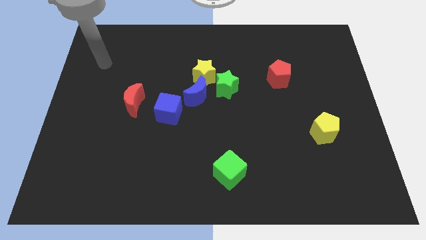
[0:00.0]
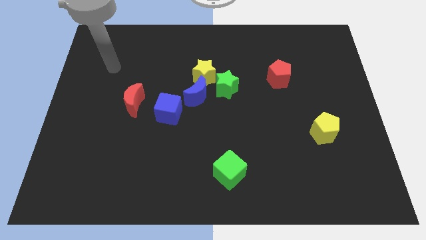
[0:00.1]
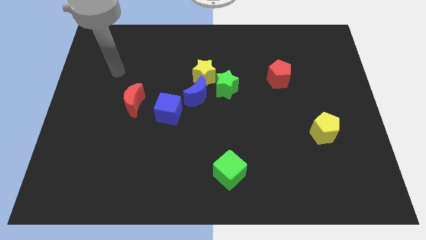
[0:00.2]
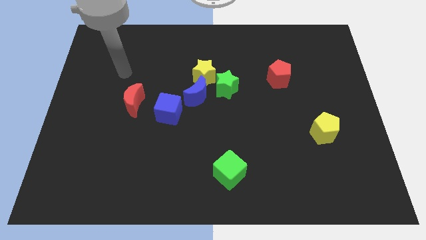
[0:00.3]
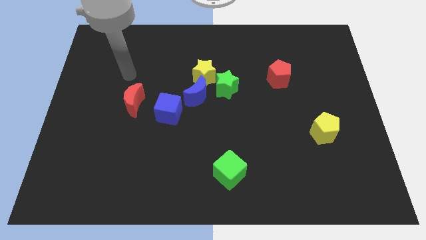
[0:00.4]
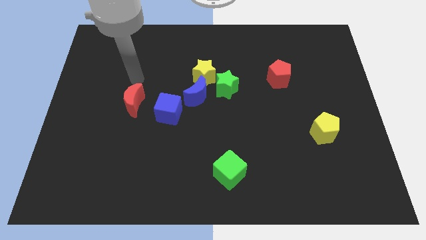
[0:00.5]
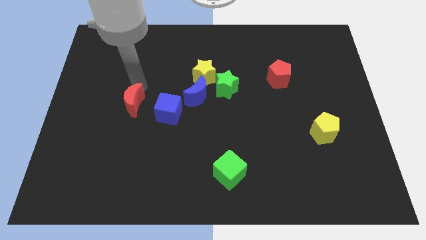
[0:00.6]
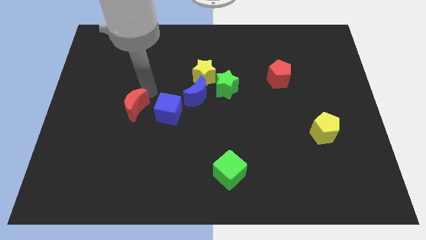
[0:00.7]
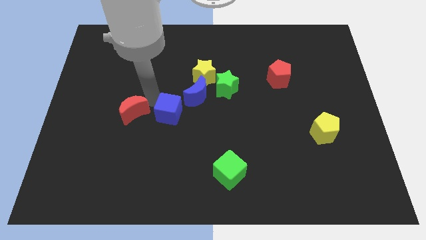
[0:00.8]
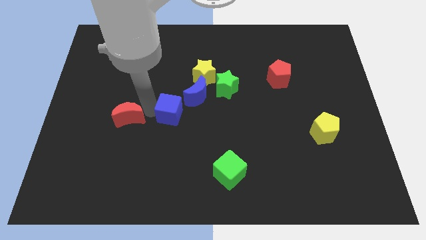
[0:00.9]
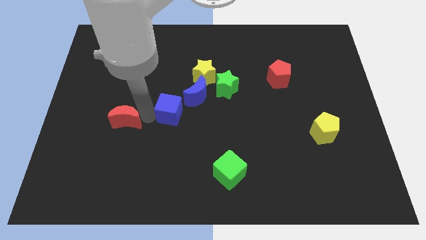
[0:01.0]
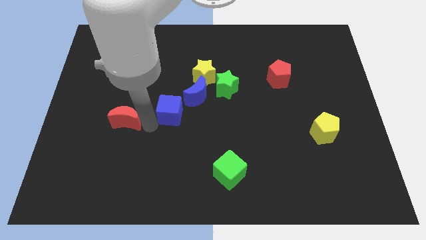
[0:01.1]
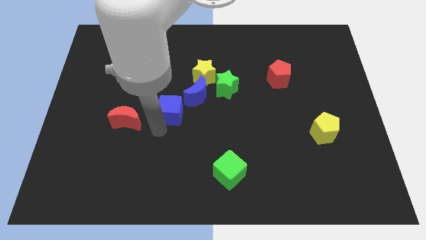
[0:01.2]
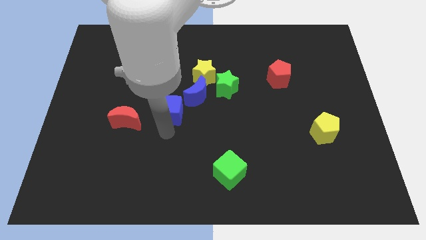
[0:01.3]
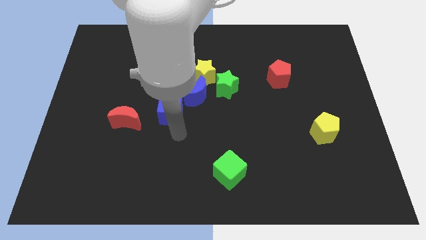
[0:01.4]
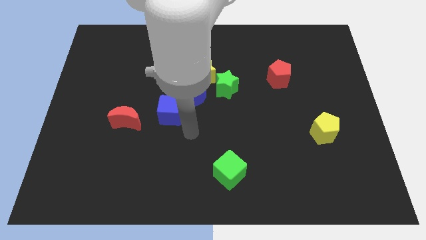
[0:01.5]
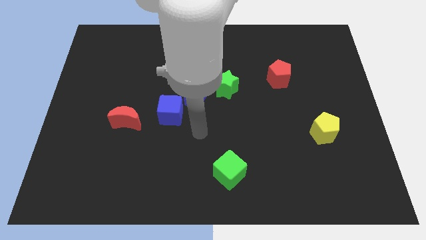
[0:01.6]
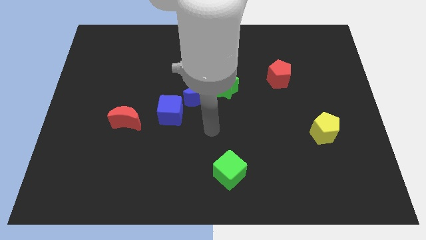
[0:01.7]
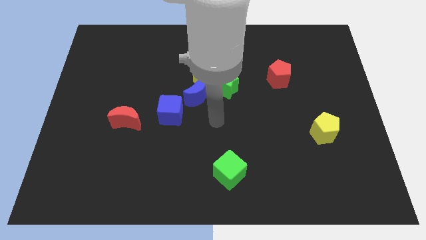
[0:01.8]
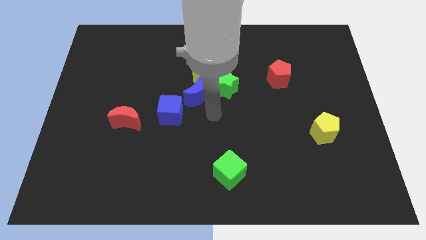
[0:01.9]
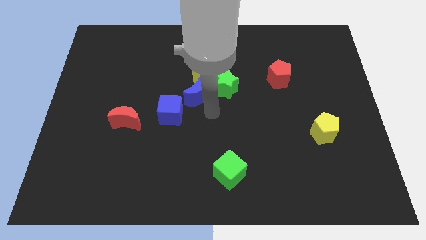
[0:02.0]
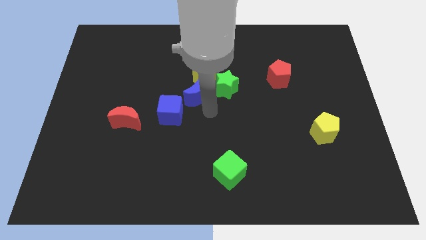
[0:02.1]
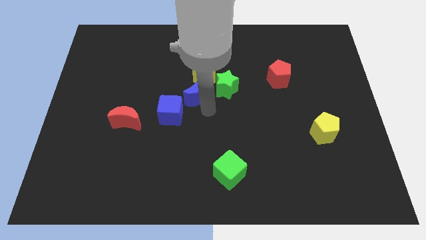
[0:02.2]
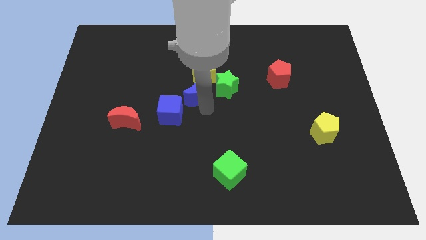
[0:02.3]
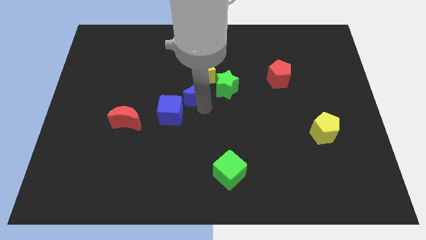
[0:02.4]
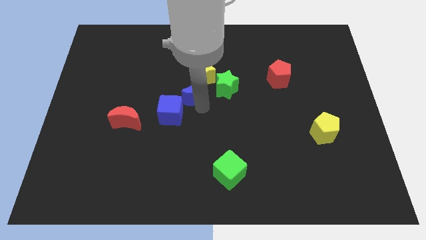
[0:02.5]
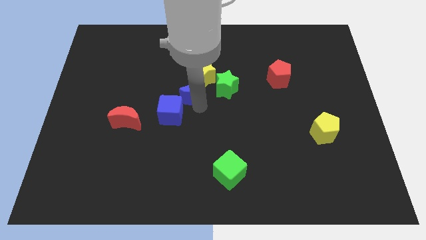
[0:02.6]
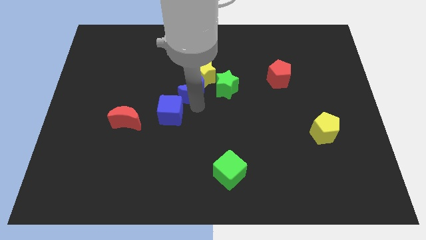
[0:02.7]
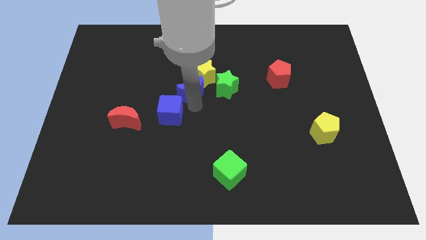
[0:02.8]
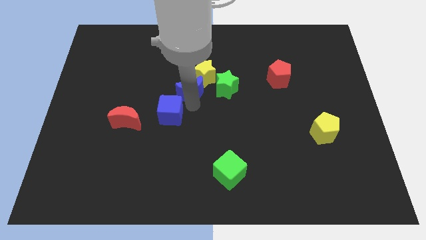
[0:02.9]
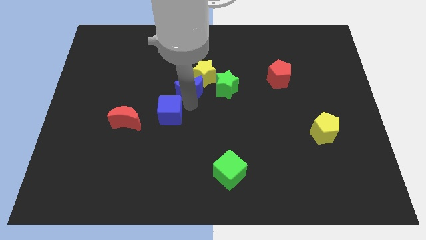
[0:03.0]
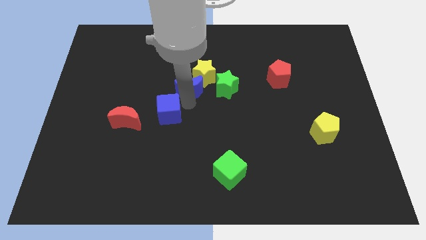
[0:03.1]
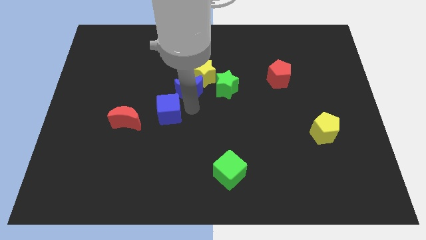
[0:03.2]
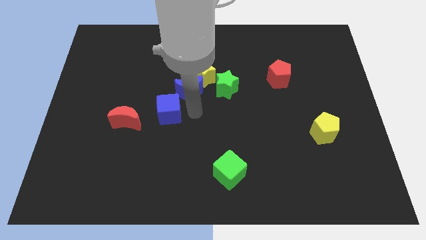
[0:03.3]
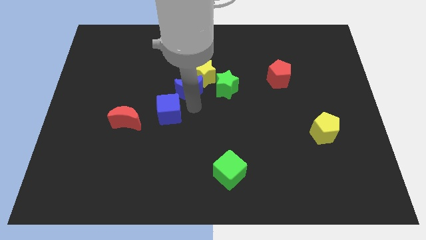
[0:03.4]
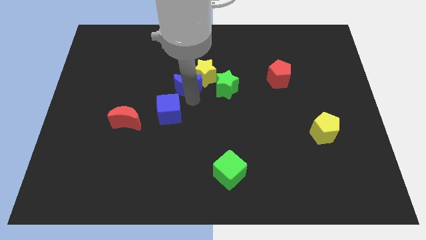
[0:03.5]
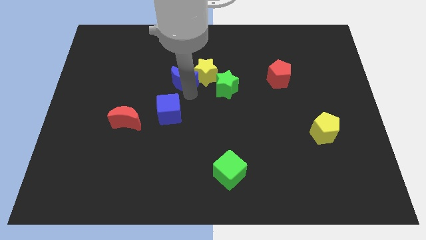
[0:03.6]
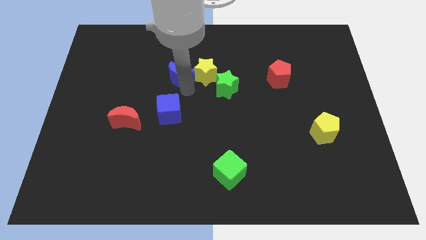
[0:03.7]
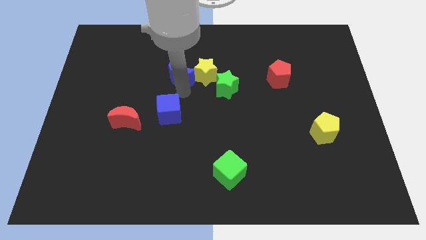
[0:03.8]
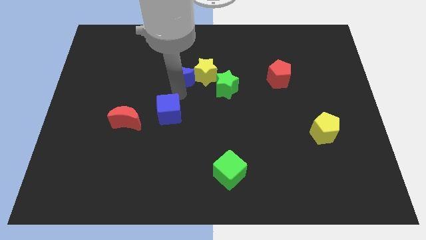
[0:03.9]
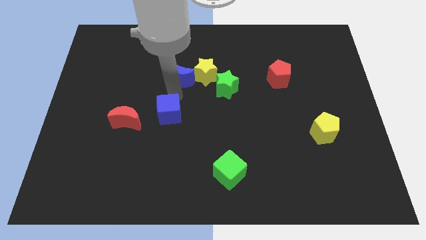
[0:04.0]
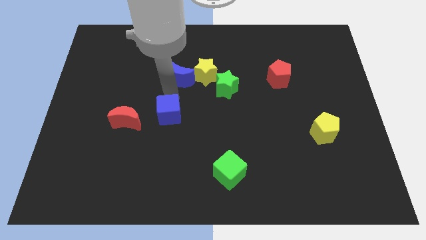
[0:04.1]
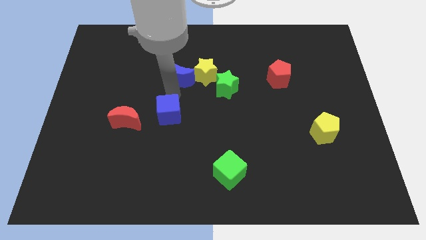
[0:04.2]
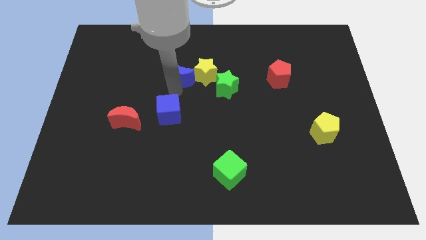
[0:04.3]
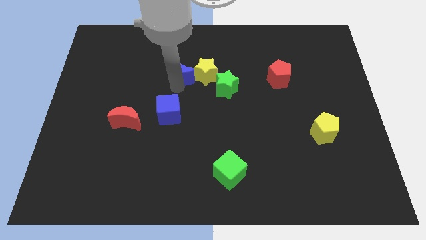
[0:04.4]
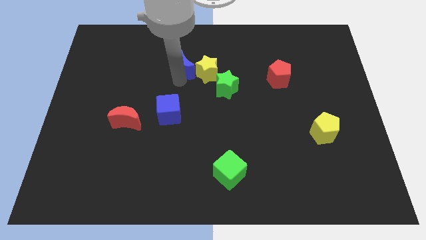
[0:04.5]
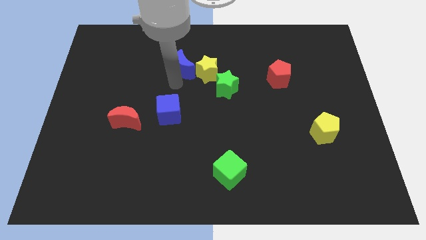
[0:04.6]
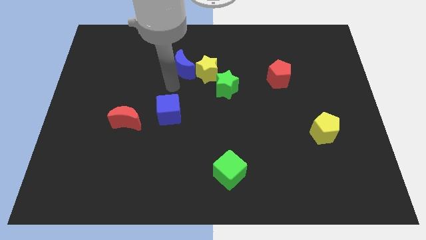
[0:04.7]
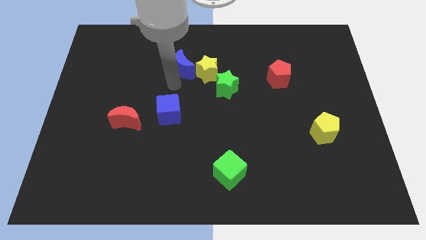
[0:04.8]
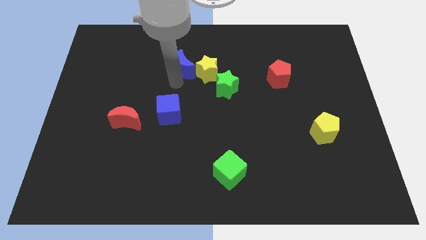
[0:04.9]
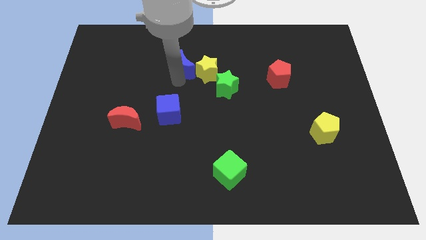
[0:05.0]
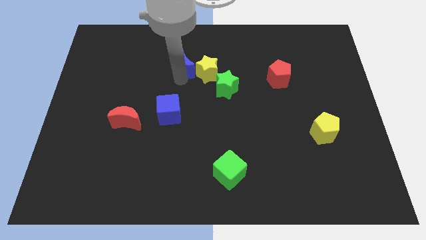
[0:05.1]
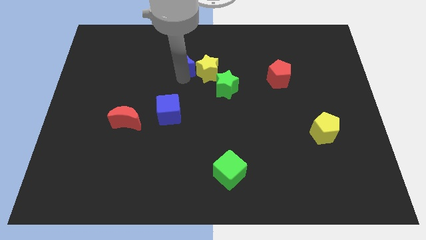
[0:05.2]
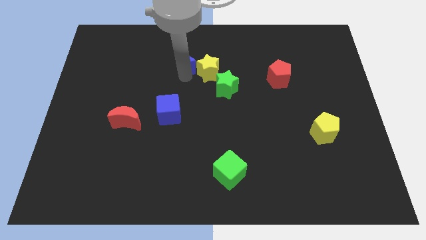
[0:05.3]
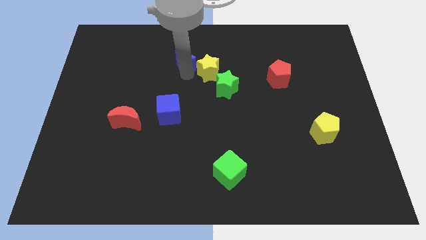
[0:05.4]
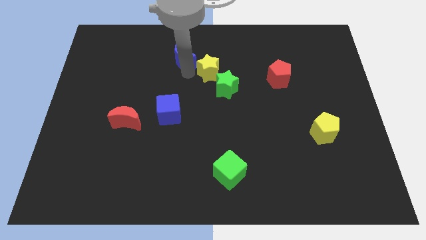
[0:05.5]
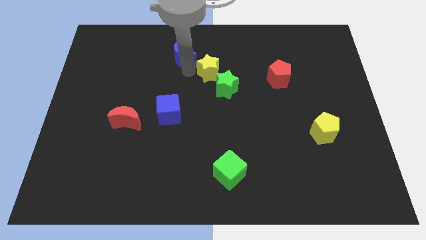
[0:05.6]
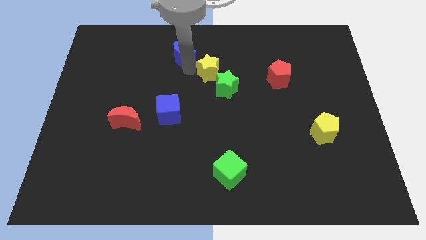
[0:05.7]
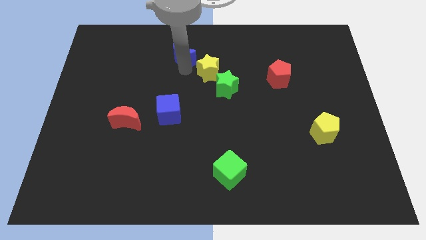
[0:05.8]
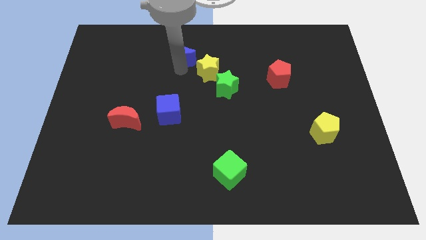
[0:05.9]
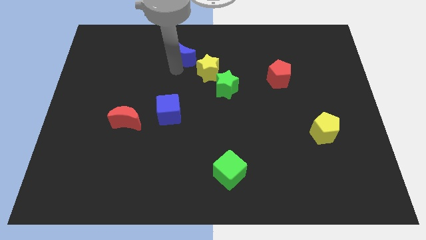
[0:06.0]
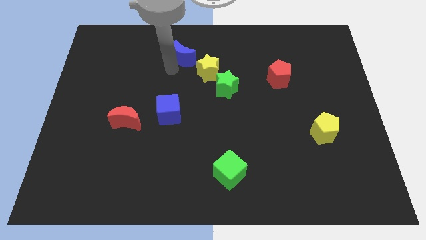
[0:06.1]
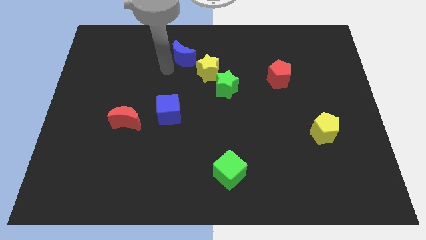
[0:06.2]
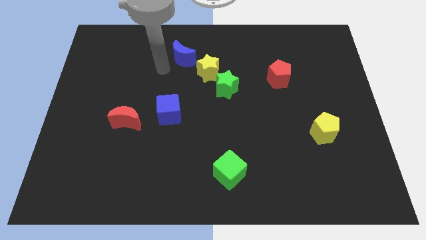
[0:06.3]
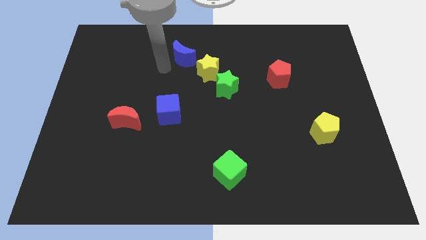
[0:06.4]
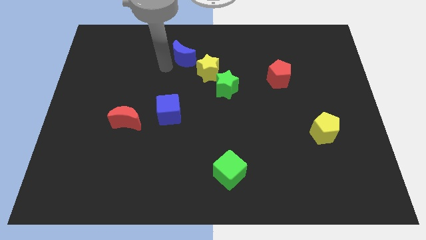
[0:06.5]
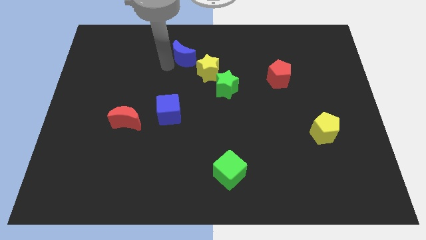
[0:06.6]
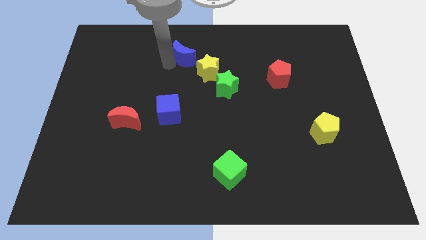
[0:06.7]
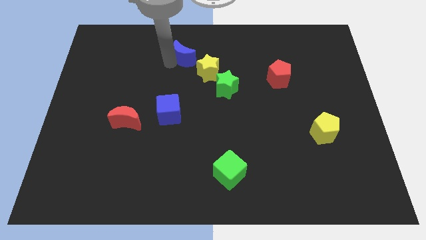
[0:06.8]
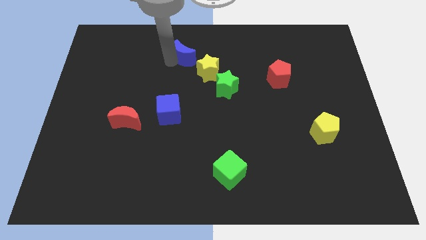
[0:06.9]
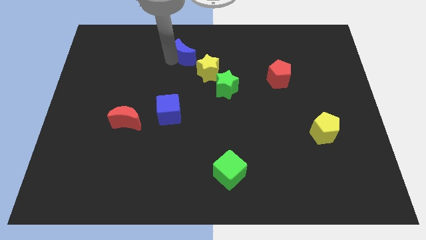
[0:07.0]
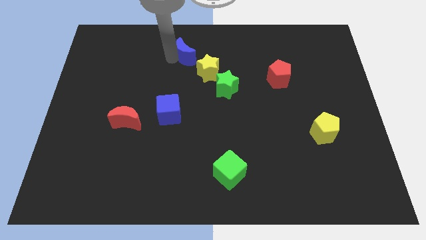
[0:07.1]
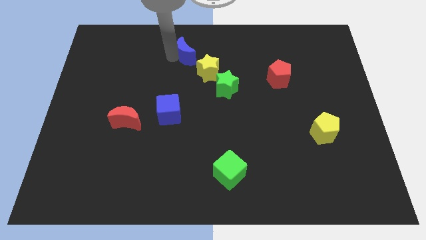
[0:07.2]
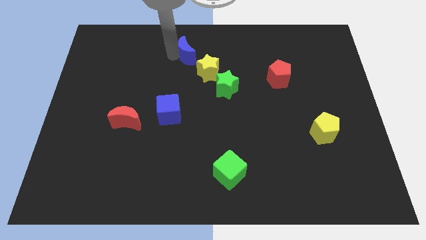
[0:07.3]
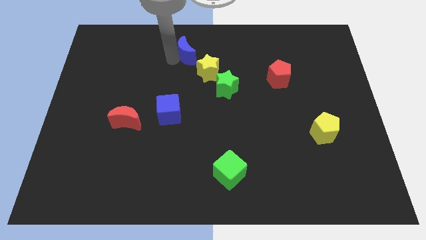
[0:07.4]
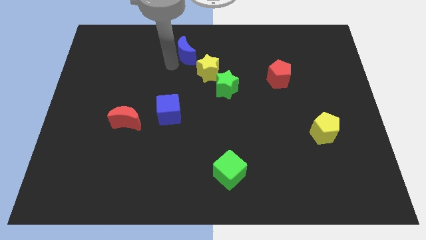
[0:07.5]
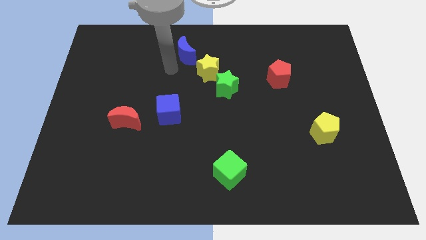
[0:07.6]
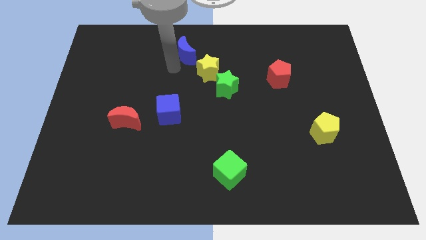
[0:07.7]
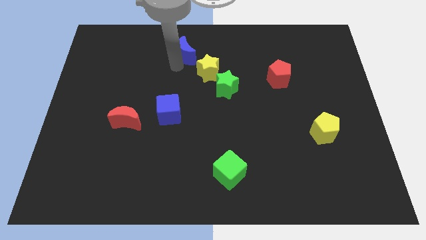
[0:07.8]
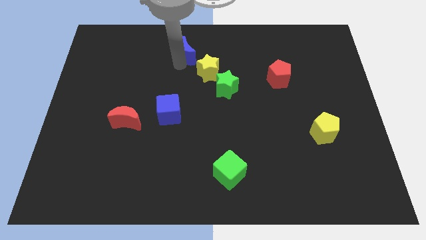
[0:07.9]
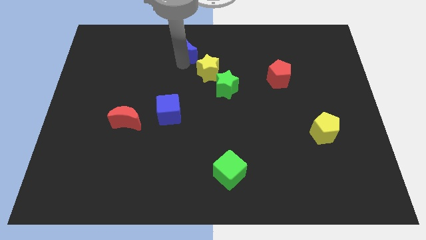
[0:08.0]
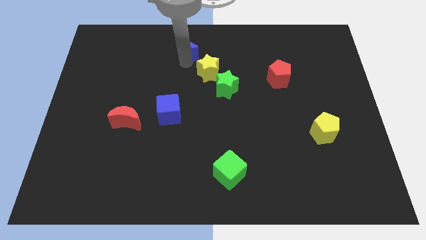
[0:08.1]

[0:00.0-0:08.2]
slide the blue moon to the top

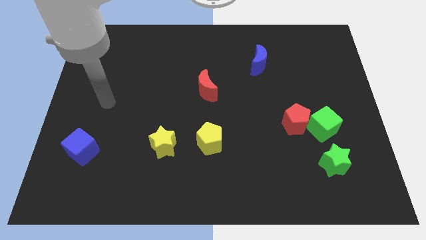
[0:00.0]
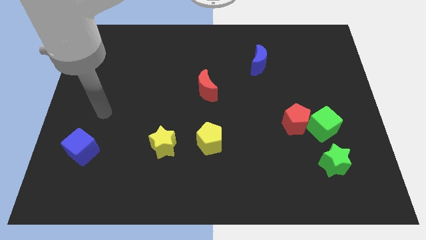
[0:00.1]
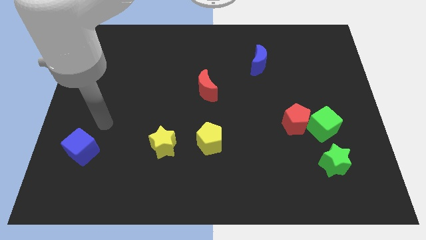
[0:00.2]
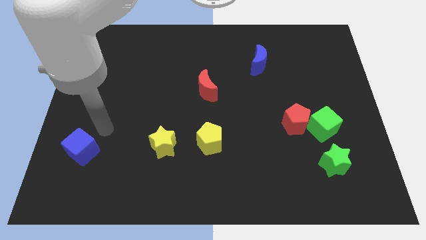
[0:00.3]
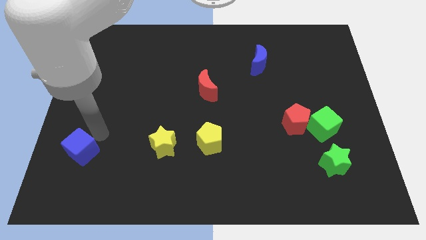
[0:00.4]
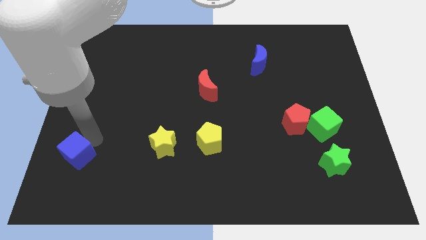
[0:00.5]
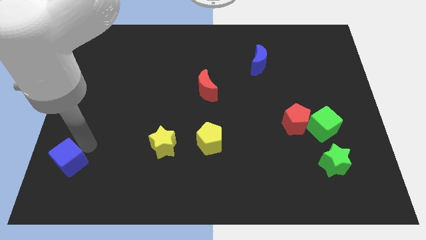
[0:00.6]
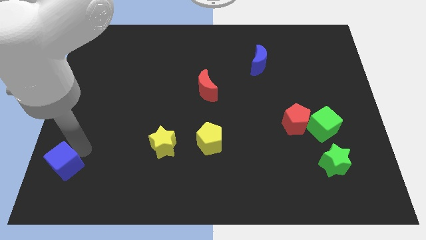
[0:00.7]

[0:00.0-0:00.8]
put the blue cube to the bottom left corner
